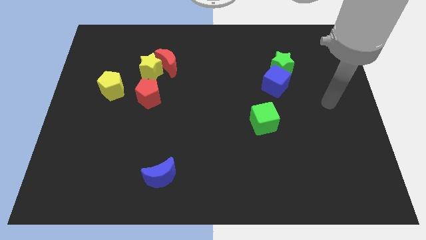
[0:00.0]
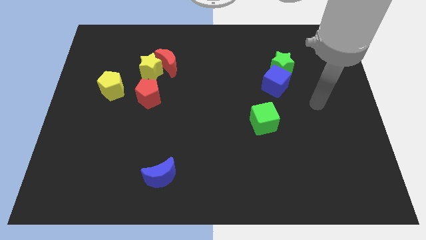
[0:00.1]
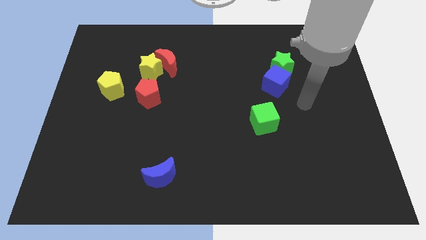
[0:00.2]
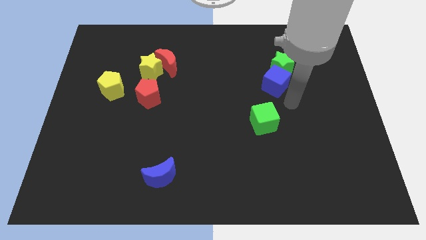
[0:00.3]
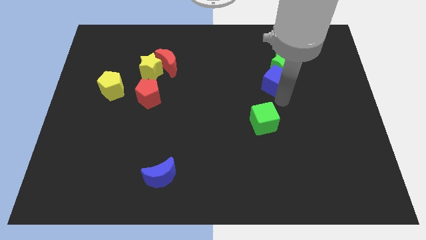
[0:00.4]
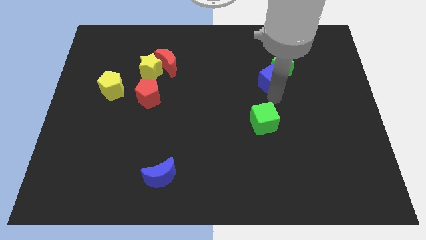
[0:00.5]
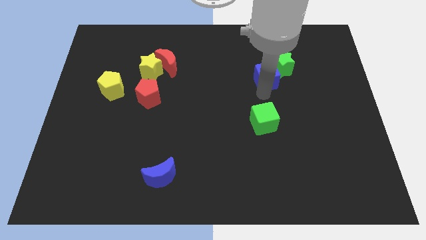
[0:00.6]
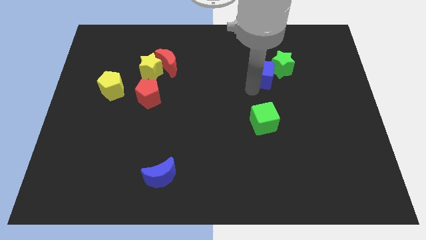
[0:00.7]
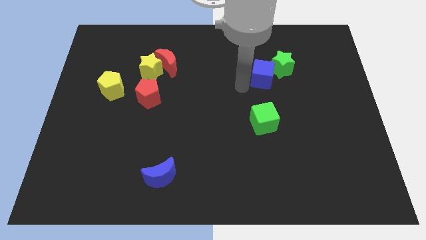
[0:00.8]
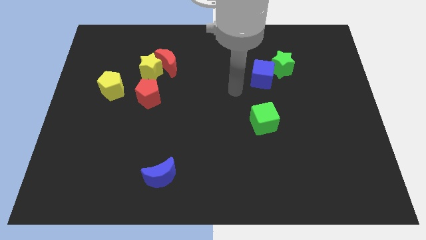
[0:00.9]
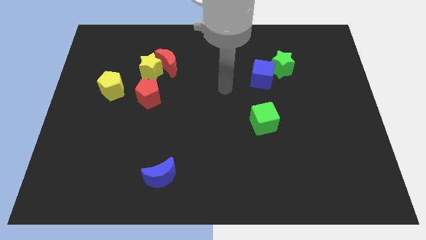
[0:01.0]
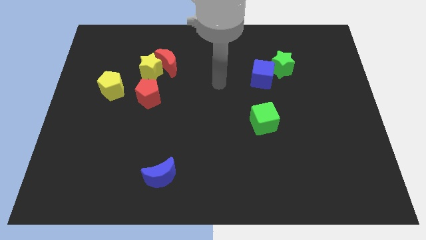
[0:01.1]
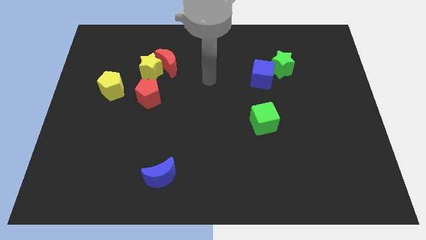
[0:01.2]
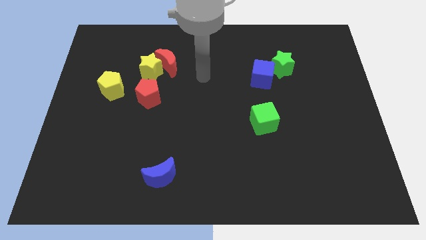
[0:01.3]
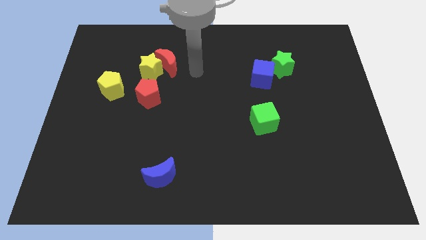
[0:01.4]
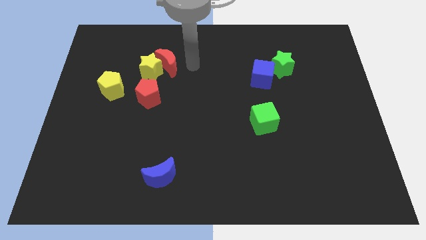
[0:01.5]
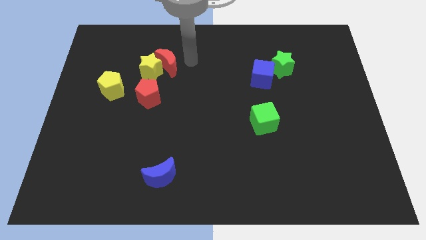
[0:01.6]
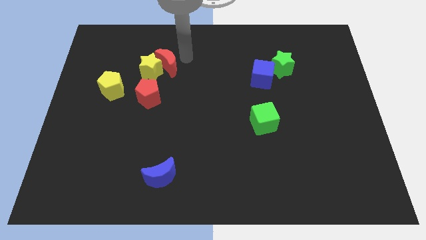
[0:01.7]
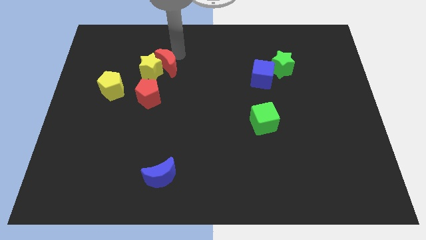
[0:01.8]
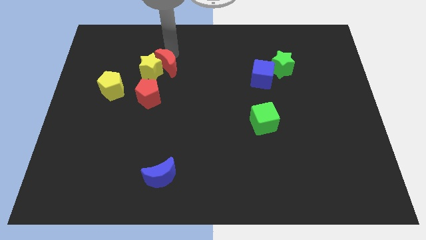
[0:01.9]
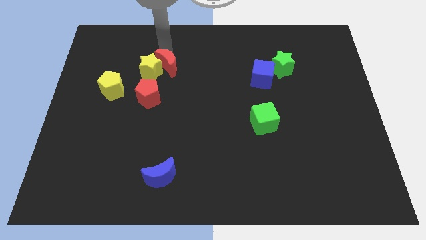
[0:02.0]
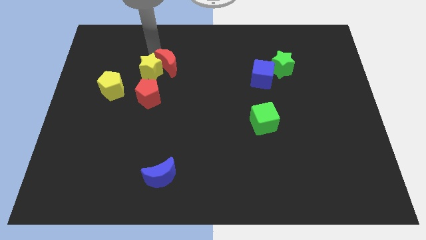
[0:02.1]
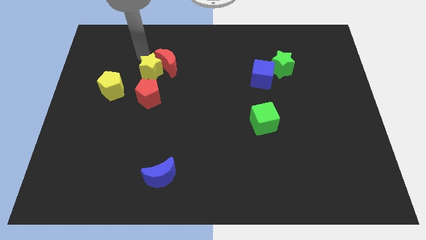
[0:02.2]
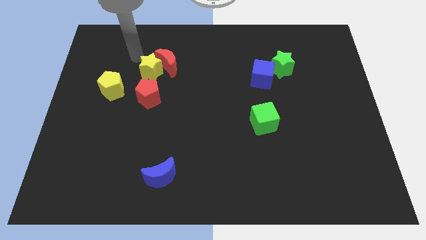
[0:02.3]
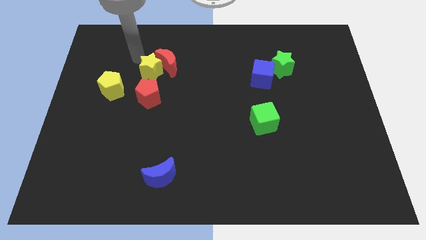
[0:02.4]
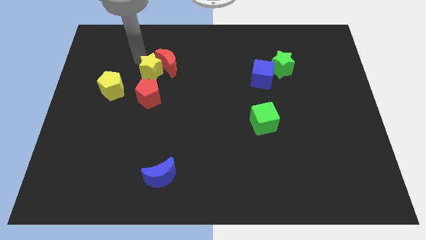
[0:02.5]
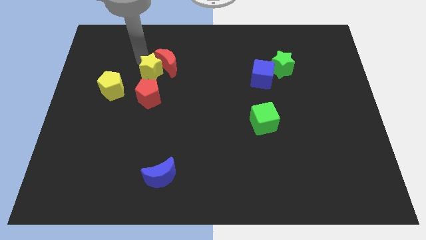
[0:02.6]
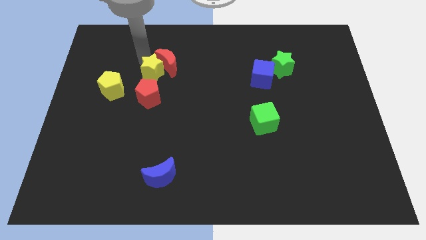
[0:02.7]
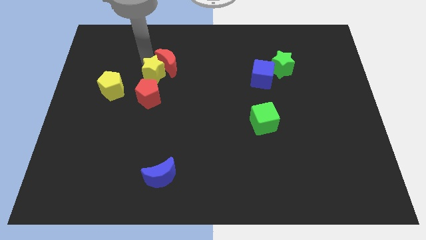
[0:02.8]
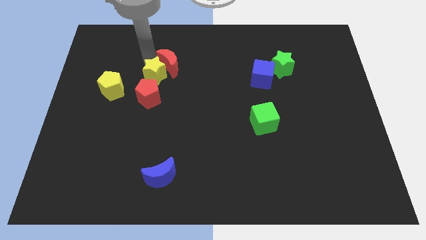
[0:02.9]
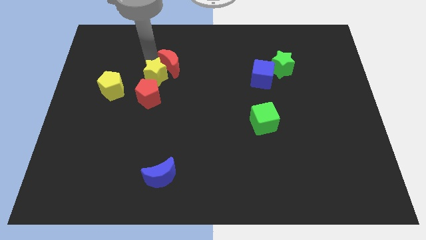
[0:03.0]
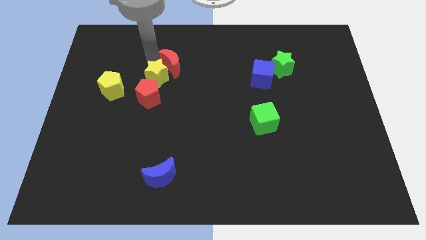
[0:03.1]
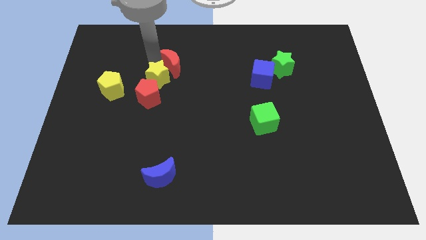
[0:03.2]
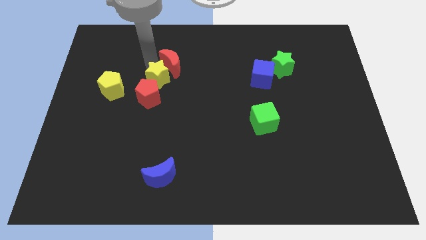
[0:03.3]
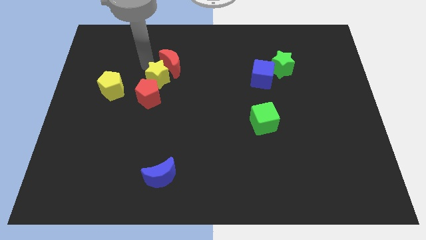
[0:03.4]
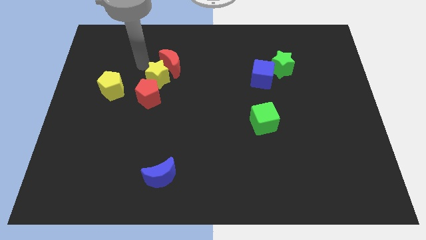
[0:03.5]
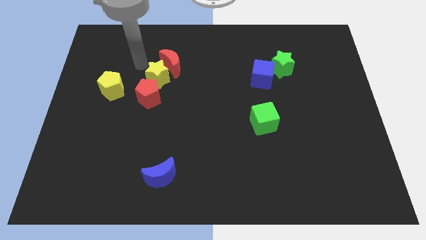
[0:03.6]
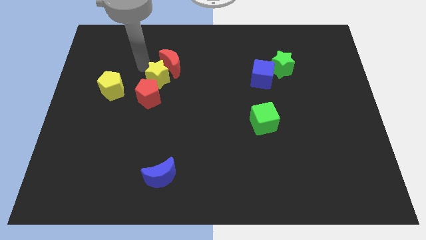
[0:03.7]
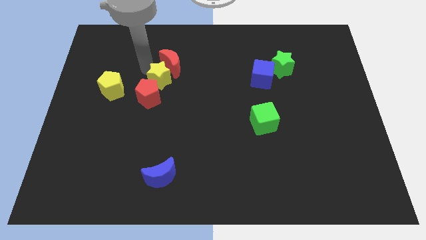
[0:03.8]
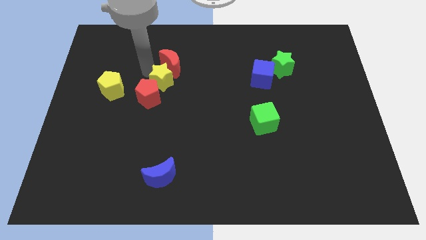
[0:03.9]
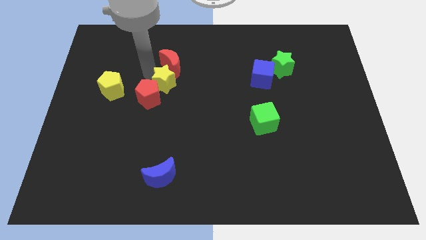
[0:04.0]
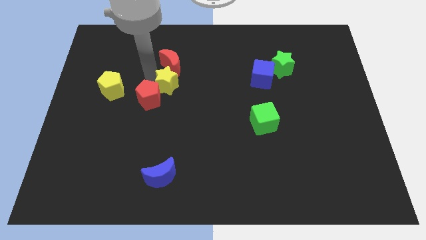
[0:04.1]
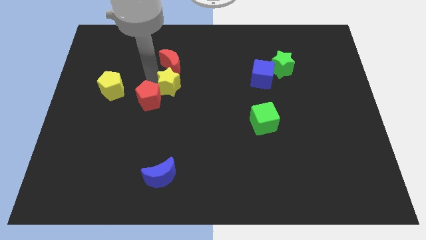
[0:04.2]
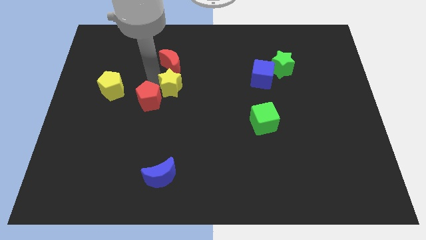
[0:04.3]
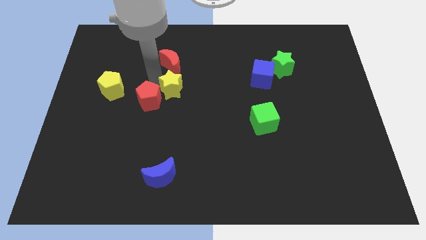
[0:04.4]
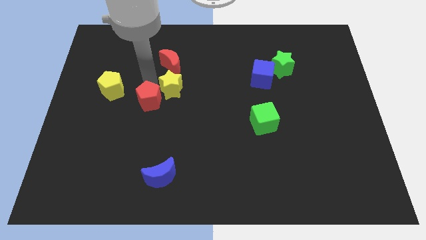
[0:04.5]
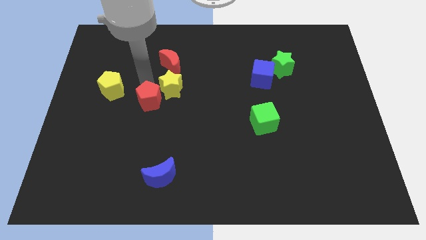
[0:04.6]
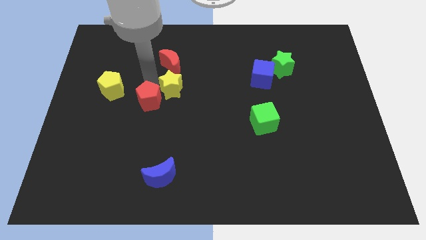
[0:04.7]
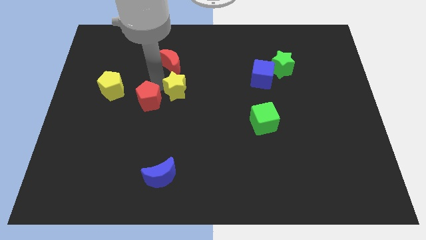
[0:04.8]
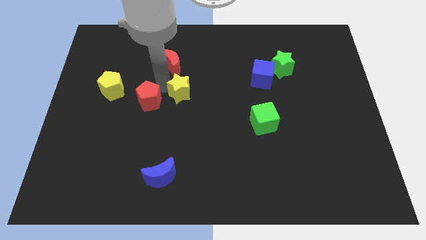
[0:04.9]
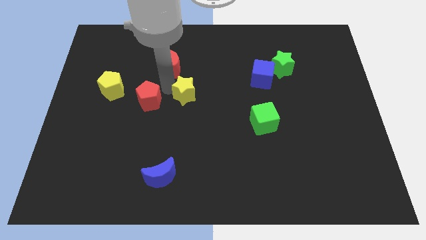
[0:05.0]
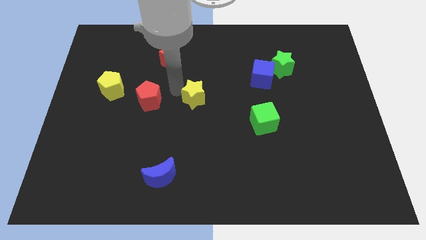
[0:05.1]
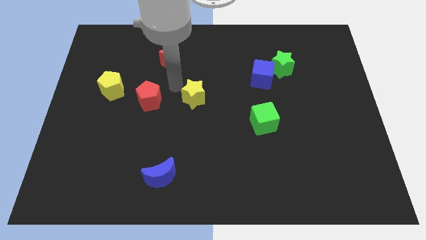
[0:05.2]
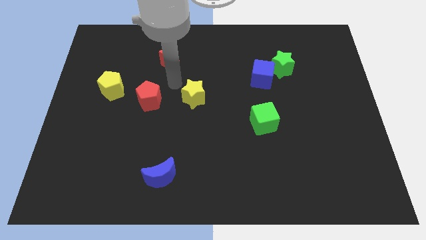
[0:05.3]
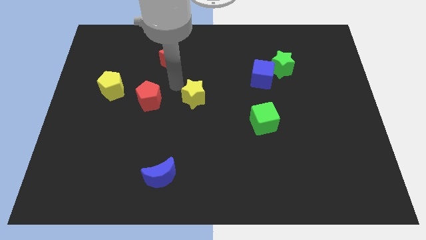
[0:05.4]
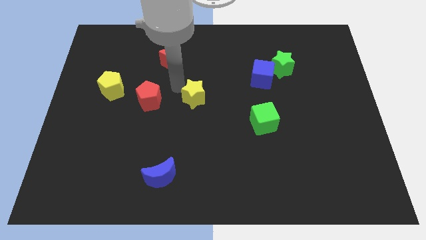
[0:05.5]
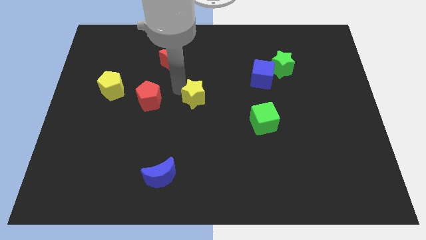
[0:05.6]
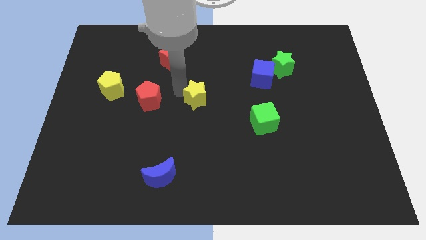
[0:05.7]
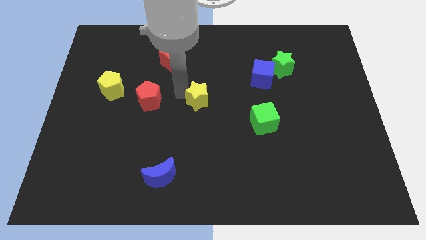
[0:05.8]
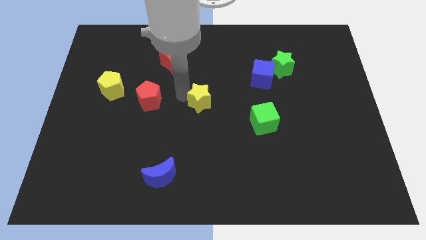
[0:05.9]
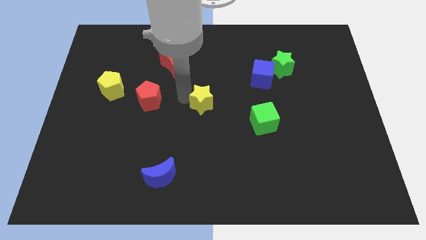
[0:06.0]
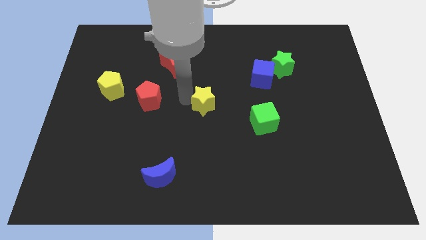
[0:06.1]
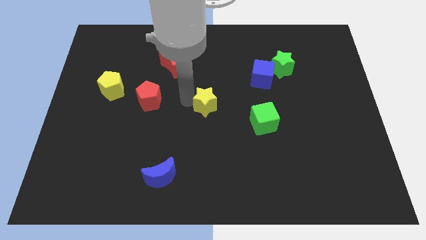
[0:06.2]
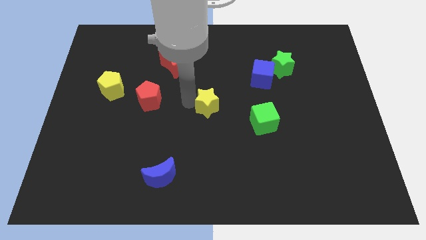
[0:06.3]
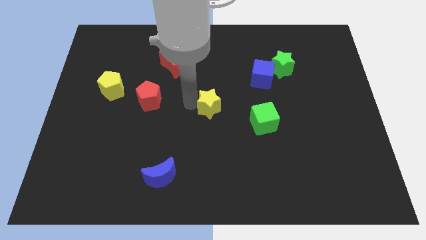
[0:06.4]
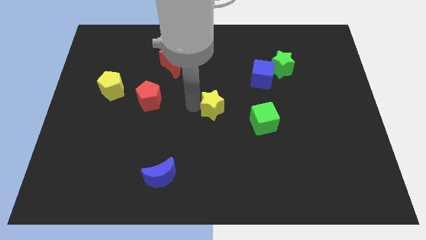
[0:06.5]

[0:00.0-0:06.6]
push the yellow star down and right diagonally

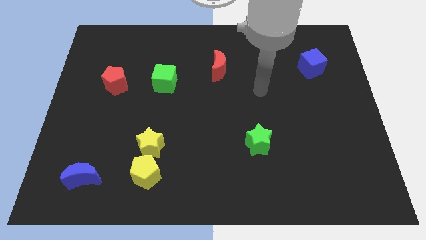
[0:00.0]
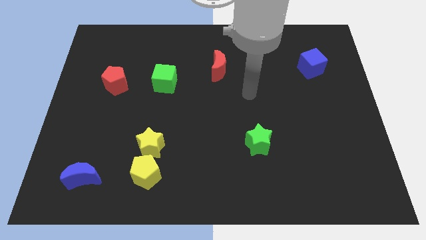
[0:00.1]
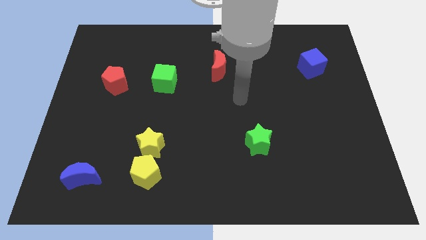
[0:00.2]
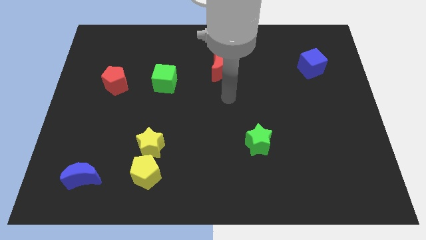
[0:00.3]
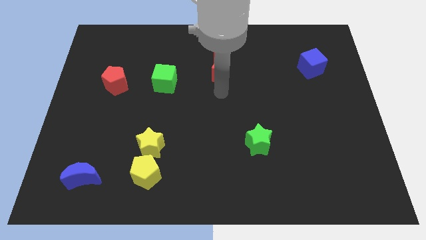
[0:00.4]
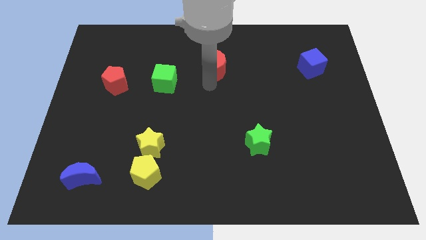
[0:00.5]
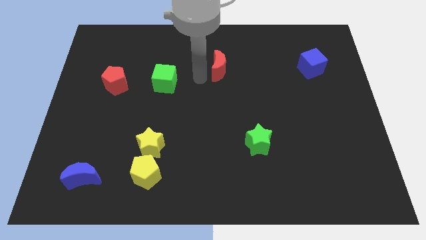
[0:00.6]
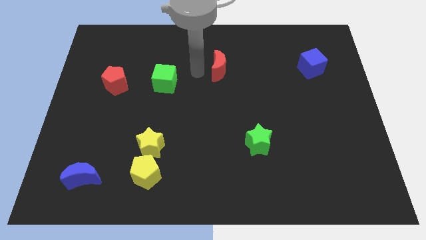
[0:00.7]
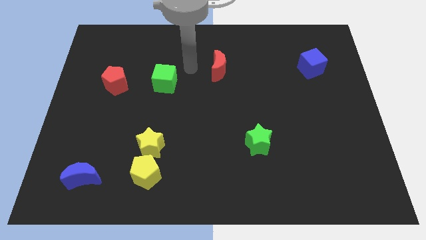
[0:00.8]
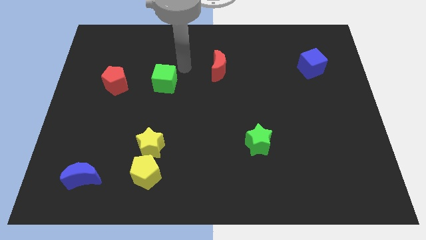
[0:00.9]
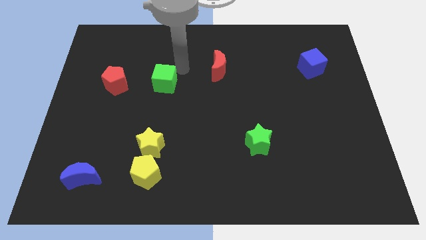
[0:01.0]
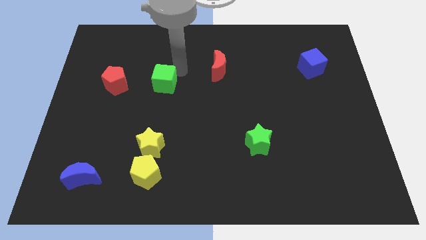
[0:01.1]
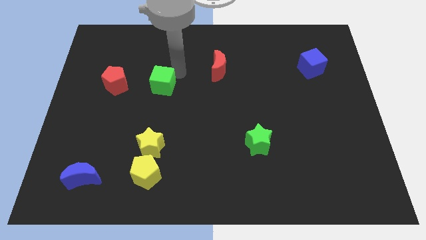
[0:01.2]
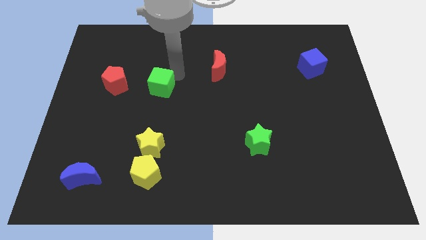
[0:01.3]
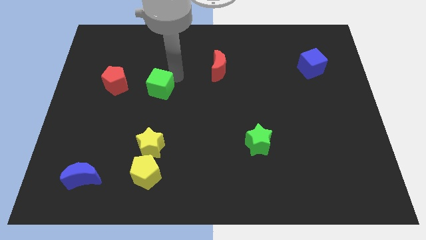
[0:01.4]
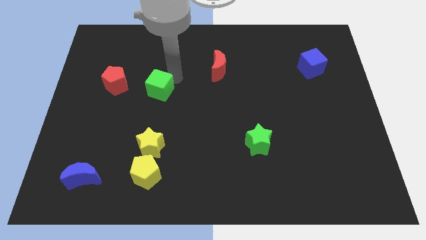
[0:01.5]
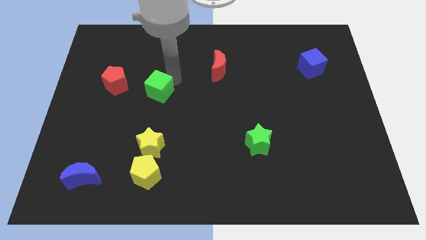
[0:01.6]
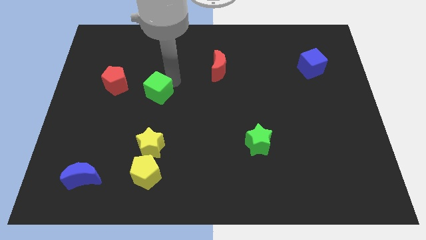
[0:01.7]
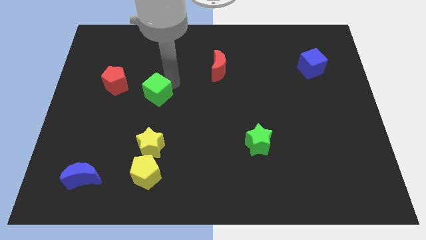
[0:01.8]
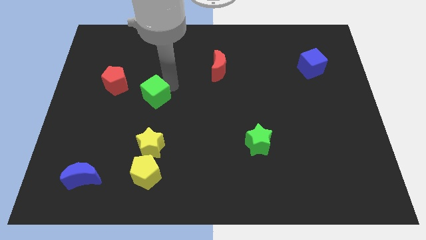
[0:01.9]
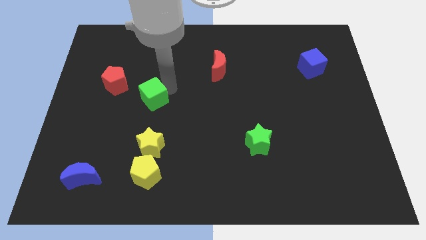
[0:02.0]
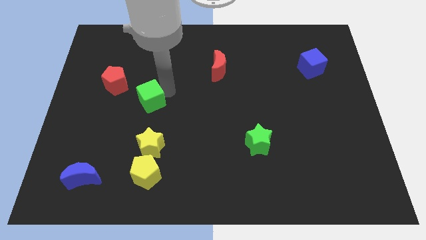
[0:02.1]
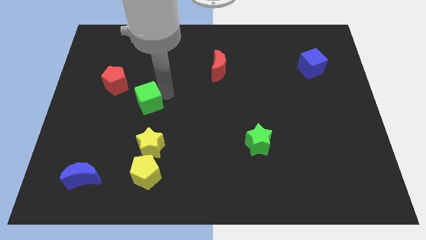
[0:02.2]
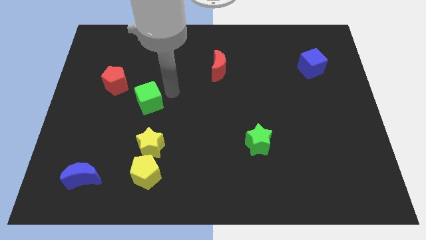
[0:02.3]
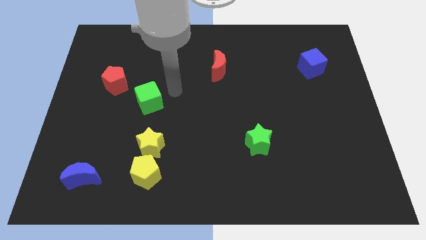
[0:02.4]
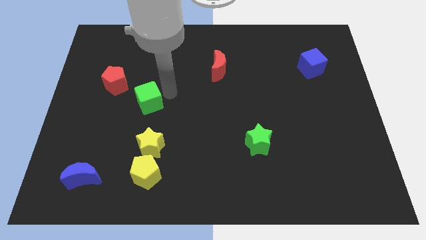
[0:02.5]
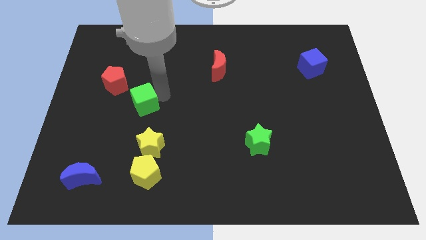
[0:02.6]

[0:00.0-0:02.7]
slightly slide the green cube down and to the left
